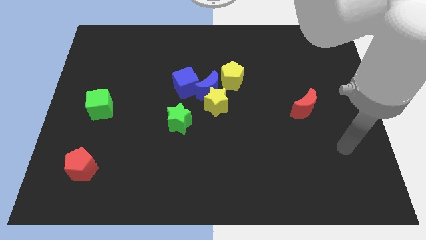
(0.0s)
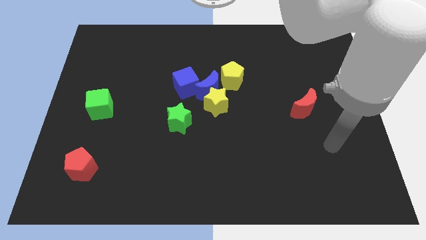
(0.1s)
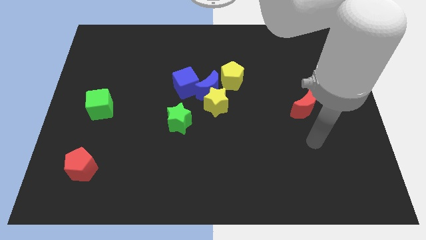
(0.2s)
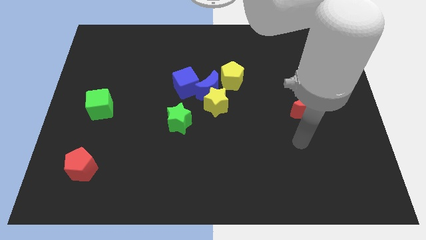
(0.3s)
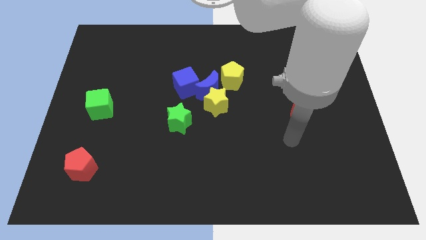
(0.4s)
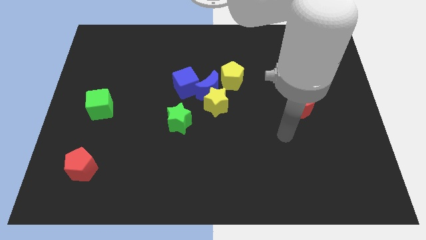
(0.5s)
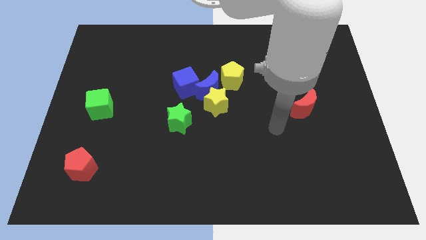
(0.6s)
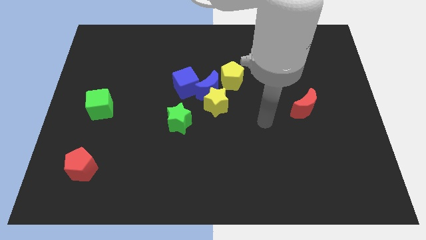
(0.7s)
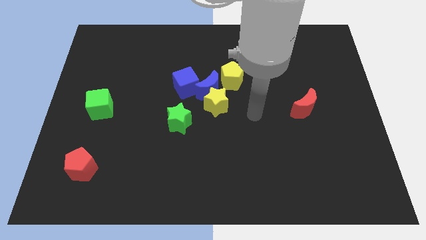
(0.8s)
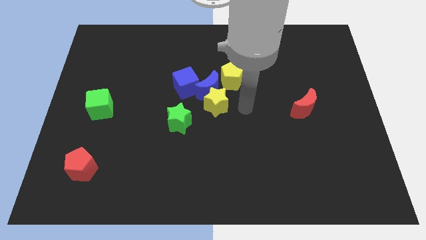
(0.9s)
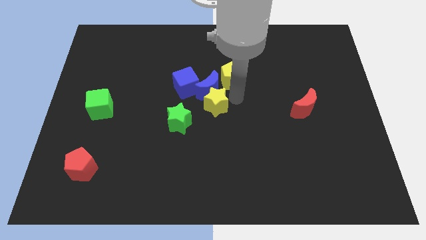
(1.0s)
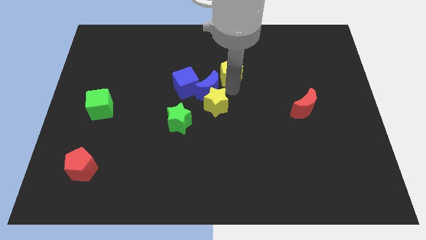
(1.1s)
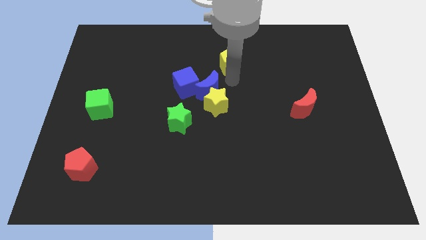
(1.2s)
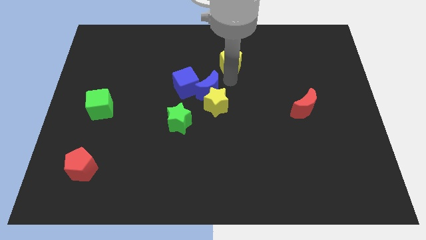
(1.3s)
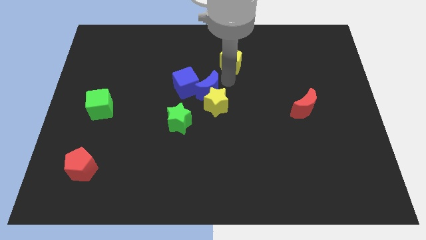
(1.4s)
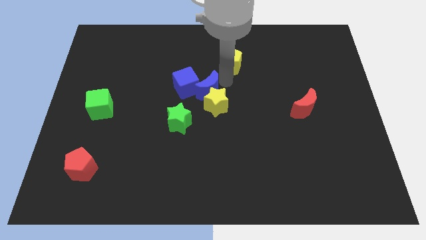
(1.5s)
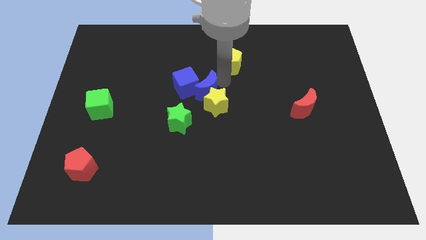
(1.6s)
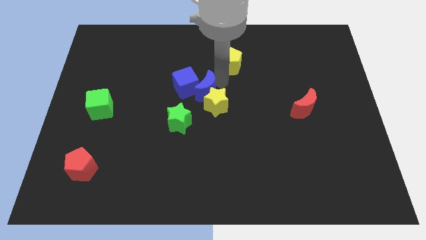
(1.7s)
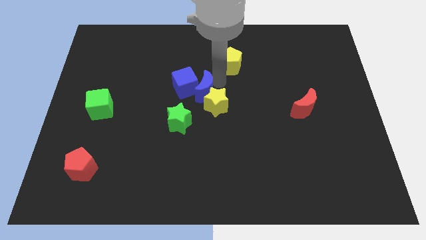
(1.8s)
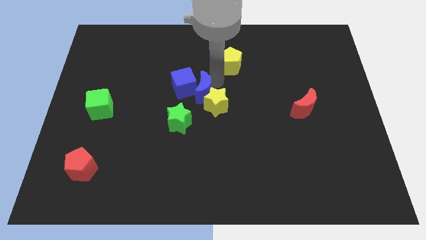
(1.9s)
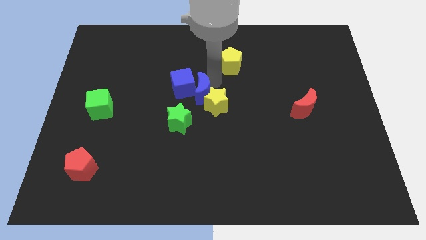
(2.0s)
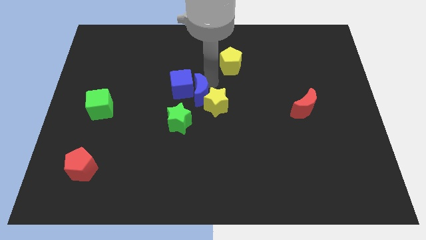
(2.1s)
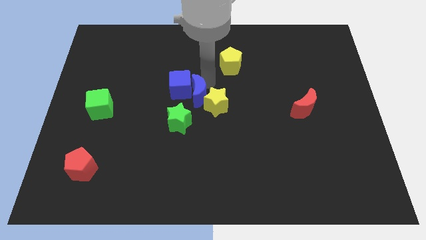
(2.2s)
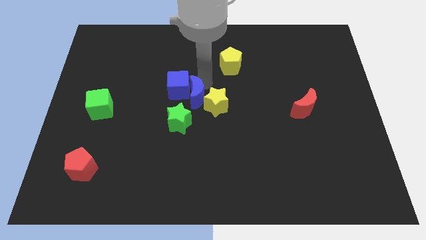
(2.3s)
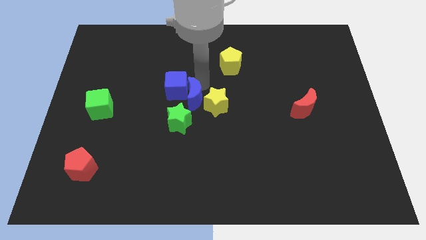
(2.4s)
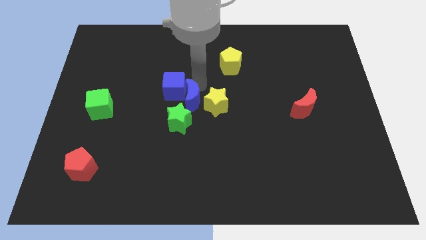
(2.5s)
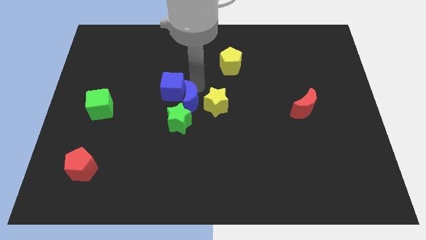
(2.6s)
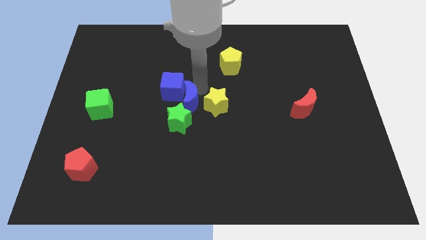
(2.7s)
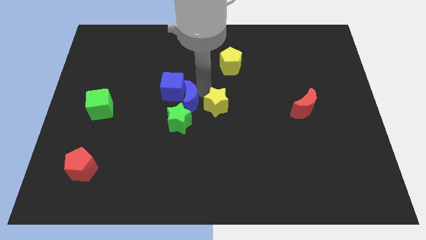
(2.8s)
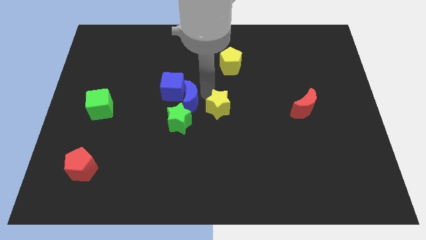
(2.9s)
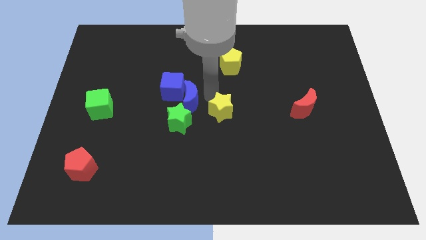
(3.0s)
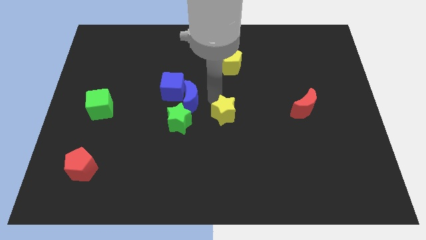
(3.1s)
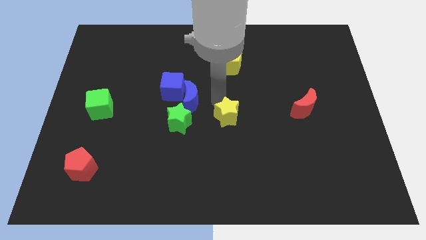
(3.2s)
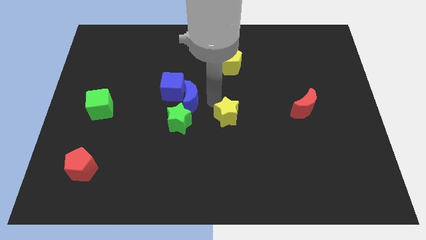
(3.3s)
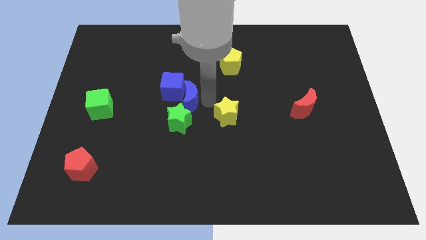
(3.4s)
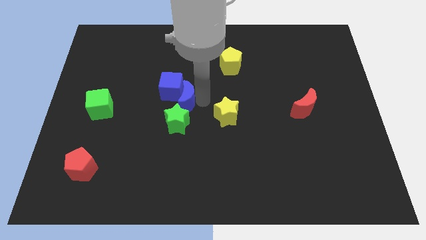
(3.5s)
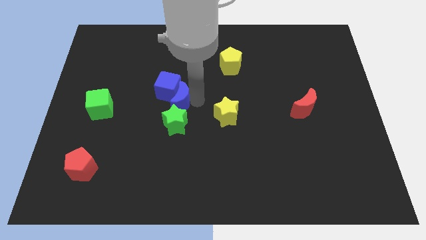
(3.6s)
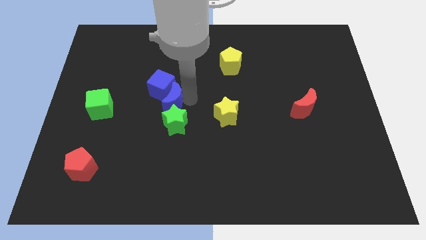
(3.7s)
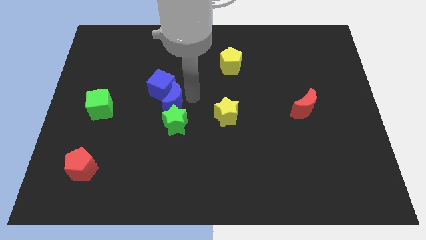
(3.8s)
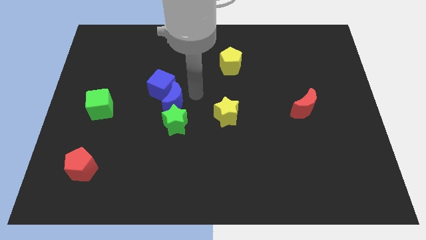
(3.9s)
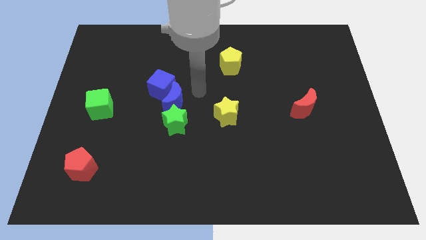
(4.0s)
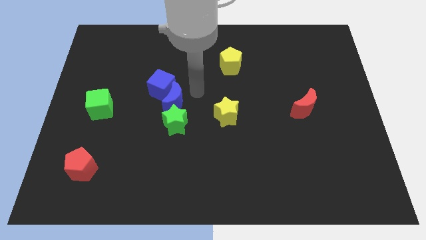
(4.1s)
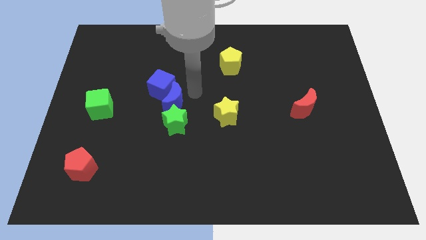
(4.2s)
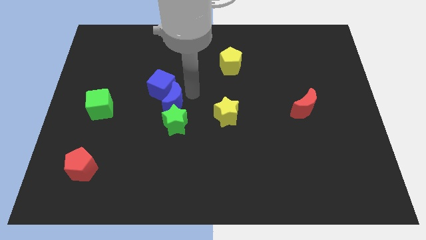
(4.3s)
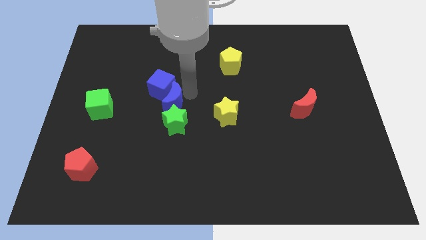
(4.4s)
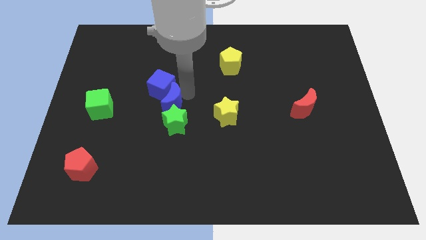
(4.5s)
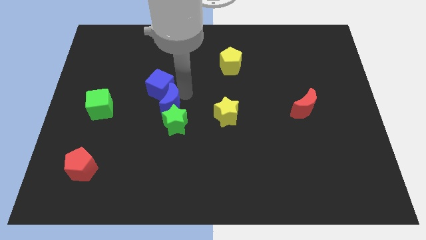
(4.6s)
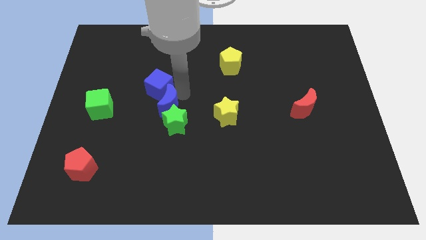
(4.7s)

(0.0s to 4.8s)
separate the blue moon from the yellow star, blue cube, and yellow pentagon

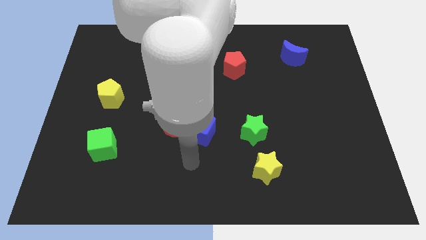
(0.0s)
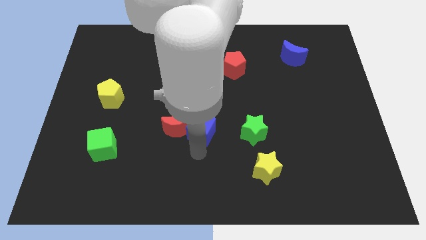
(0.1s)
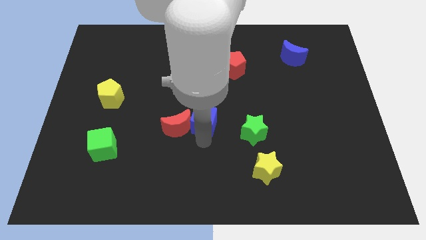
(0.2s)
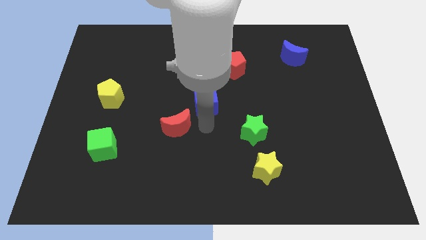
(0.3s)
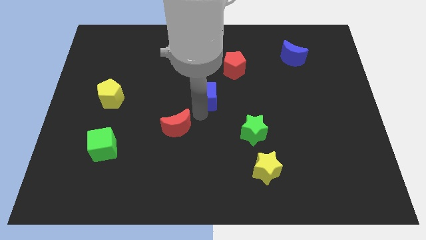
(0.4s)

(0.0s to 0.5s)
pull the red moon apart from the blue cube

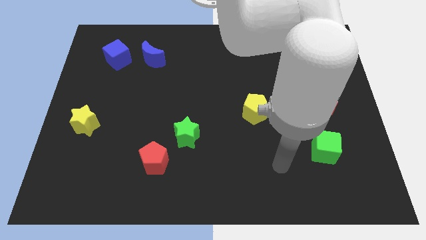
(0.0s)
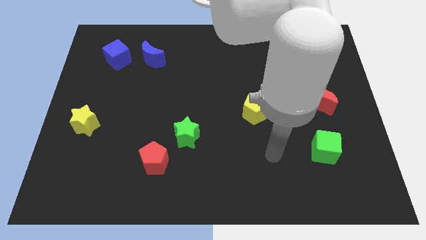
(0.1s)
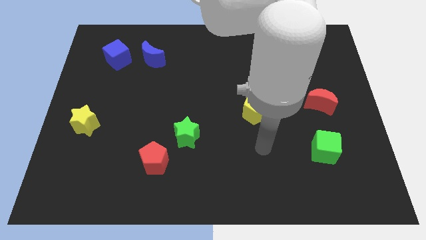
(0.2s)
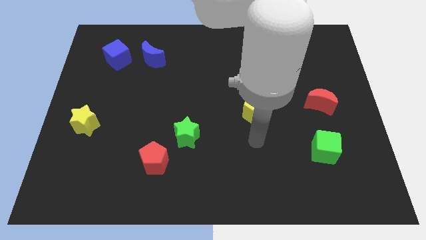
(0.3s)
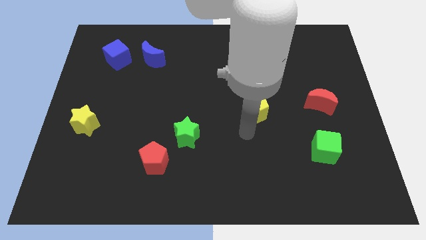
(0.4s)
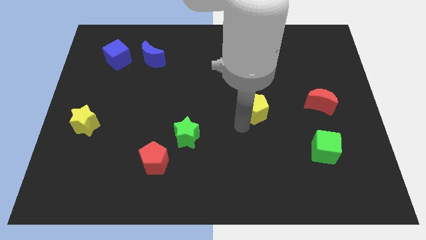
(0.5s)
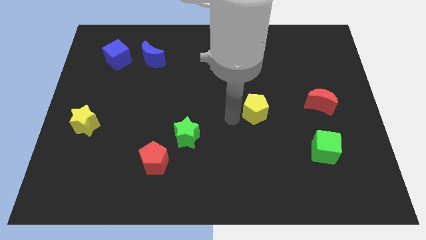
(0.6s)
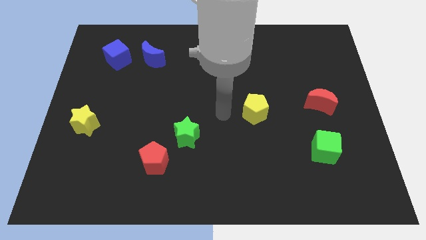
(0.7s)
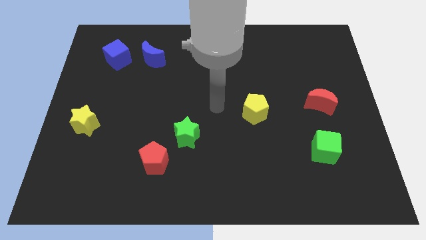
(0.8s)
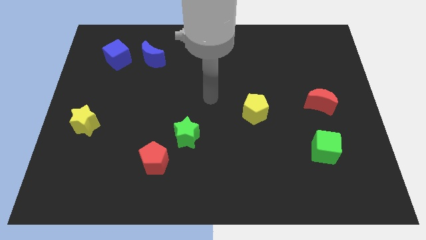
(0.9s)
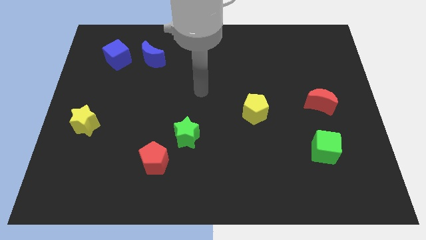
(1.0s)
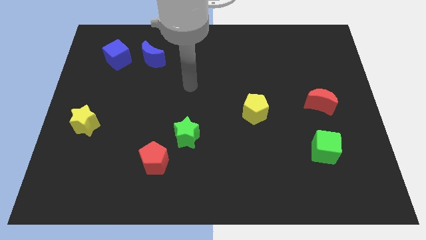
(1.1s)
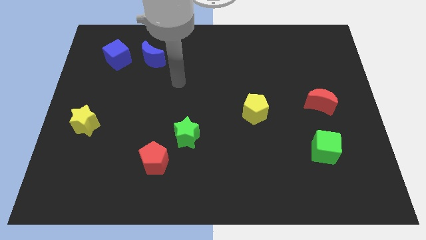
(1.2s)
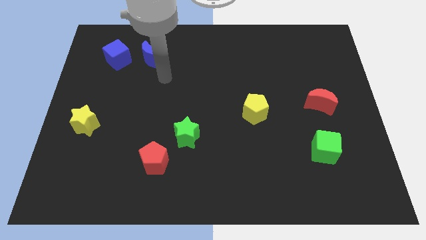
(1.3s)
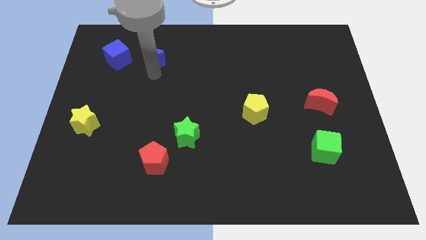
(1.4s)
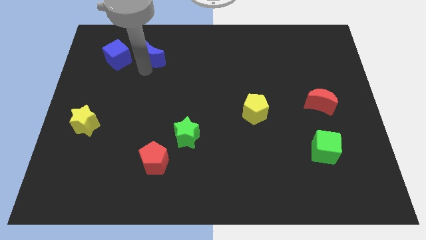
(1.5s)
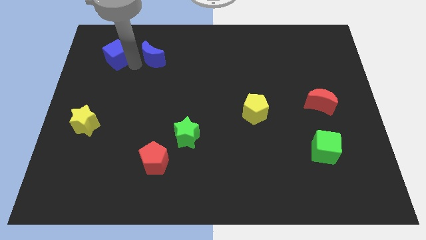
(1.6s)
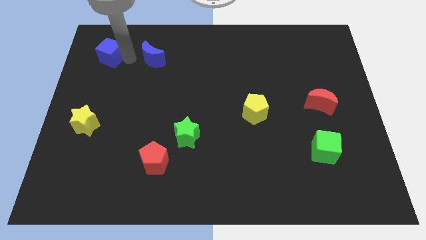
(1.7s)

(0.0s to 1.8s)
move the blue moon away from the blue cube

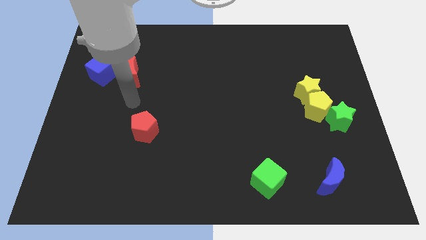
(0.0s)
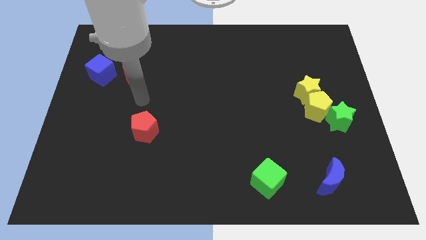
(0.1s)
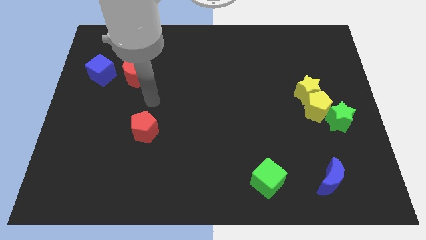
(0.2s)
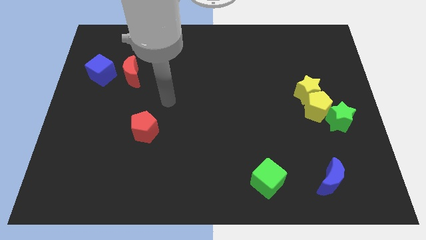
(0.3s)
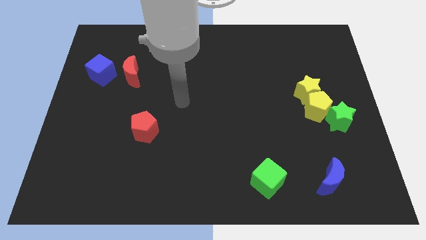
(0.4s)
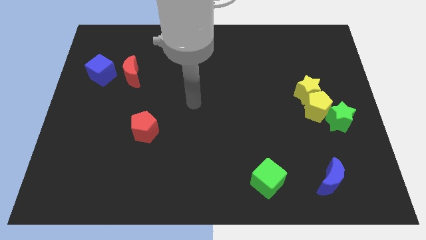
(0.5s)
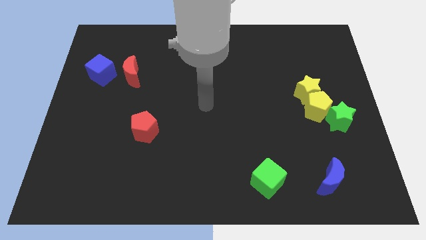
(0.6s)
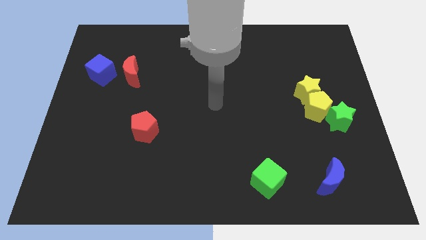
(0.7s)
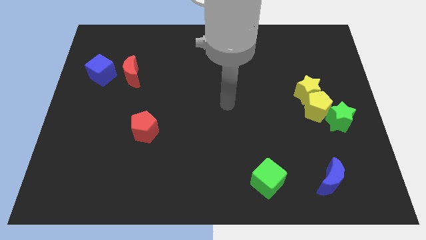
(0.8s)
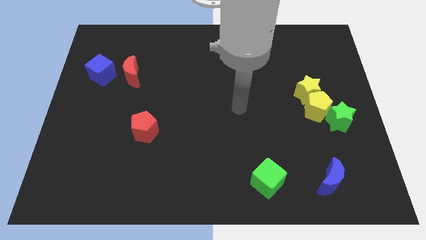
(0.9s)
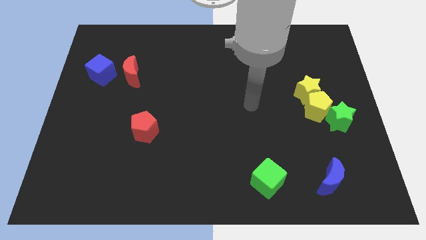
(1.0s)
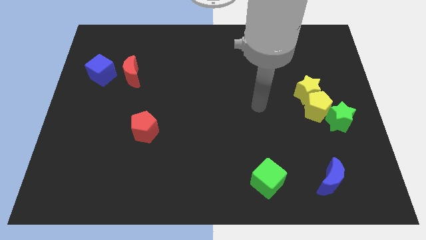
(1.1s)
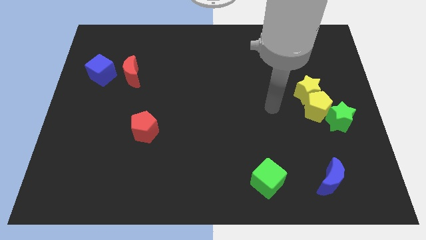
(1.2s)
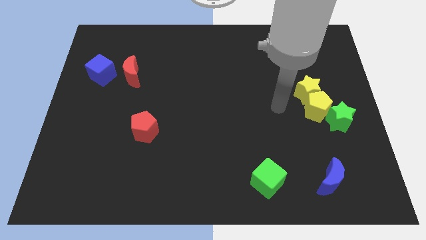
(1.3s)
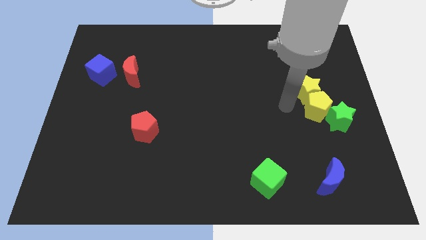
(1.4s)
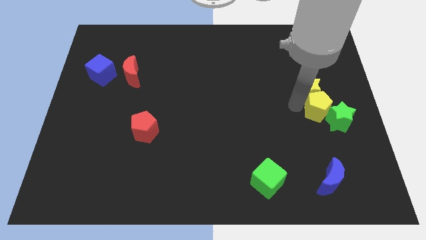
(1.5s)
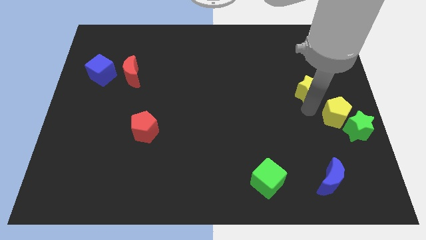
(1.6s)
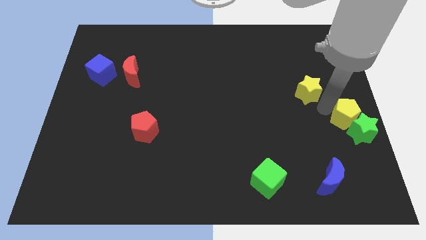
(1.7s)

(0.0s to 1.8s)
move the yellow star away from the yellow pentagon

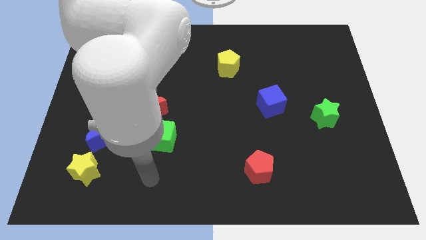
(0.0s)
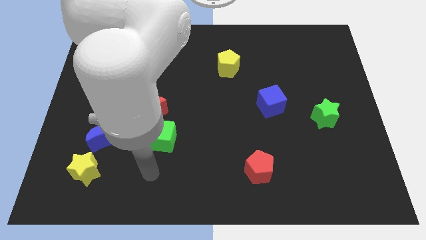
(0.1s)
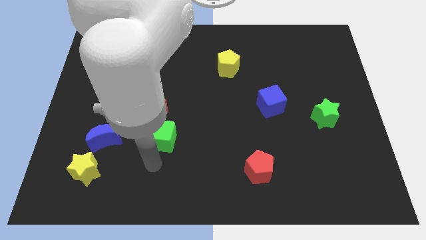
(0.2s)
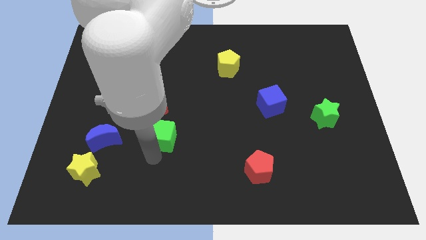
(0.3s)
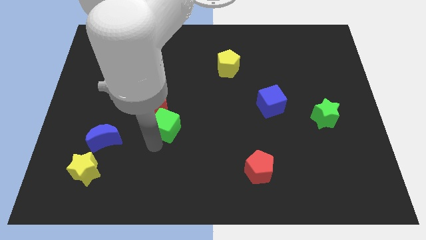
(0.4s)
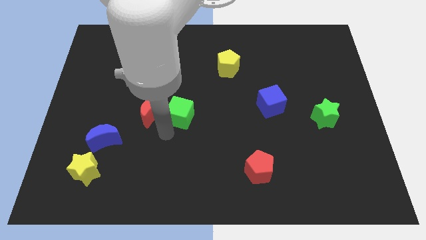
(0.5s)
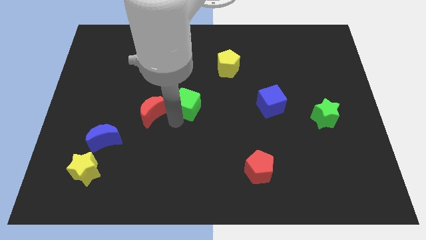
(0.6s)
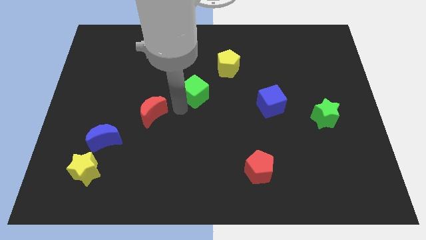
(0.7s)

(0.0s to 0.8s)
pull the red moon apart from the green cube
